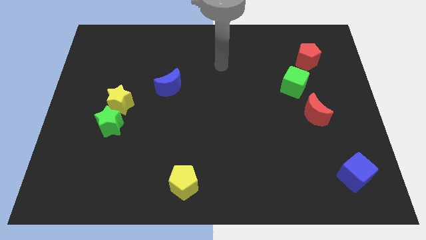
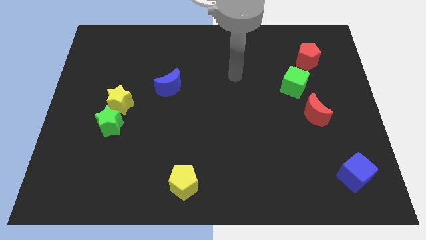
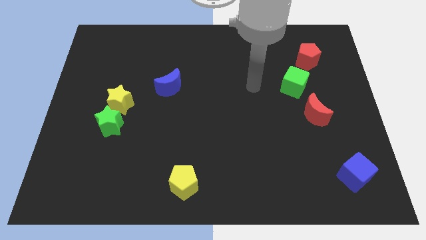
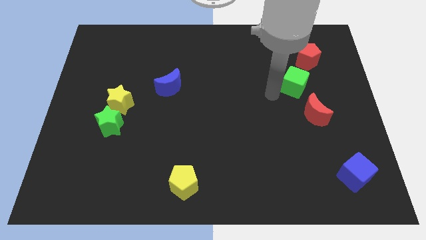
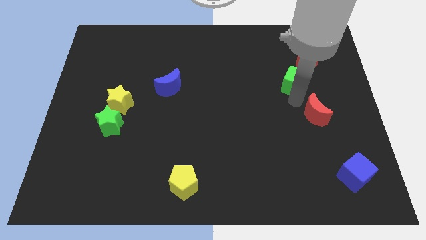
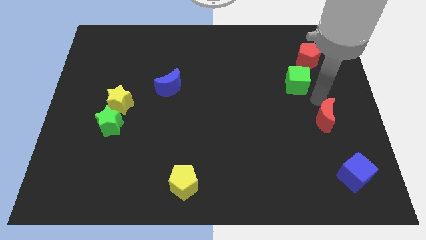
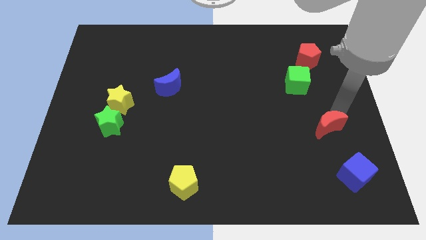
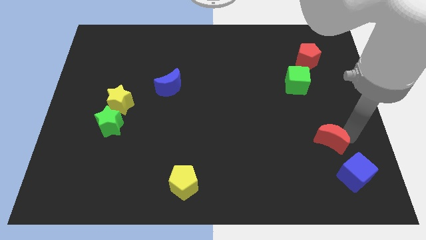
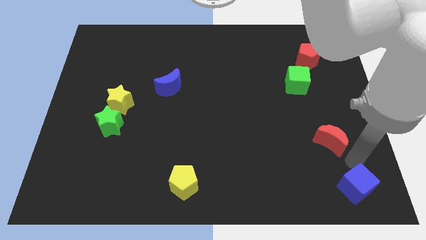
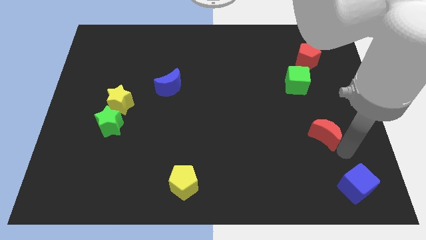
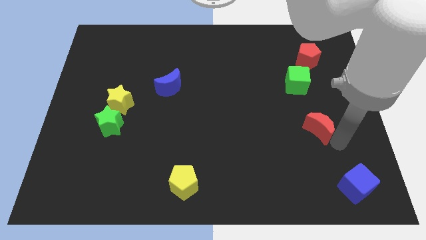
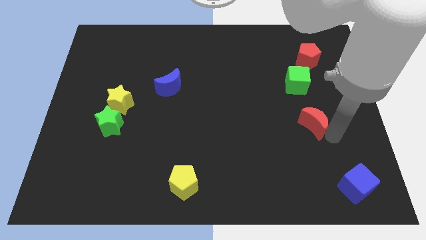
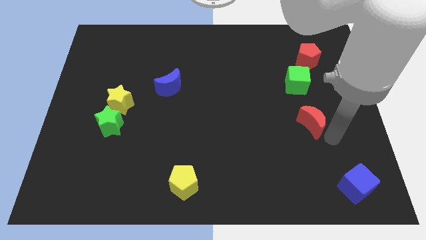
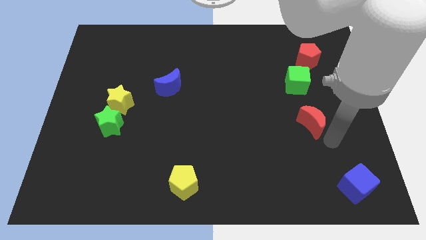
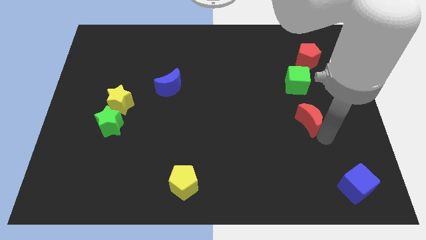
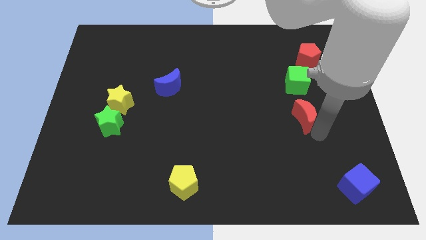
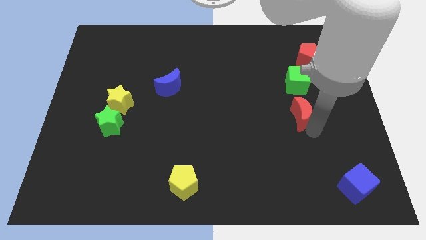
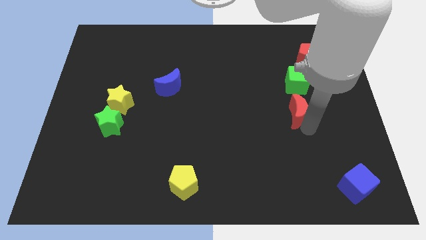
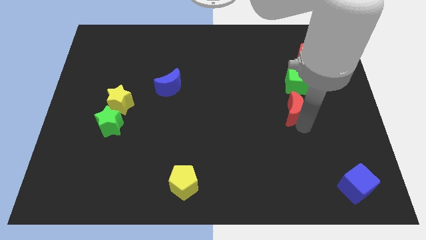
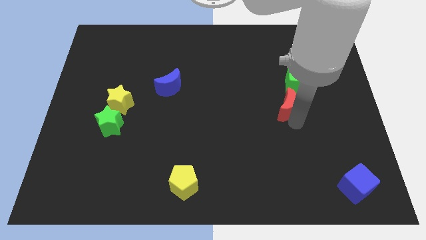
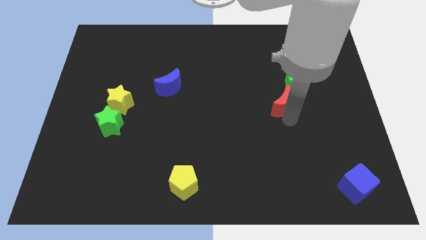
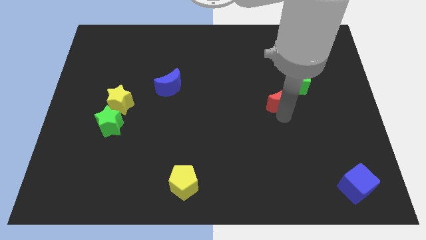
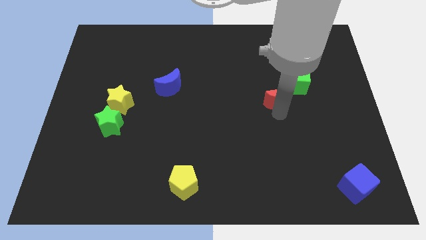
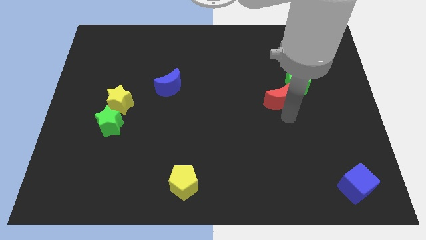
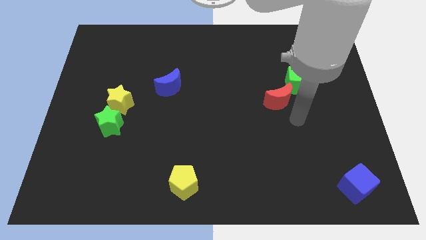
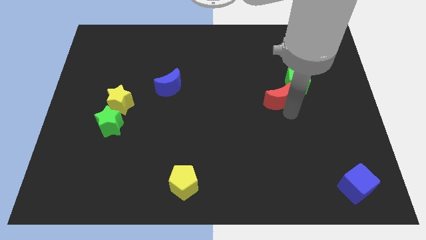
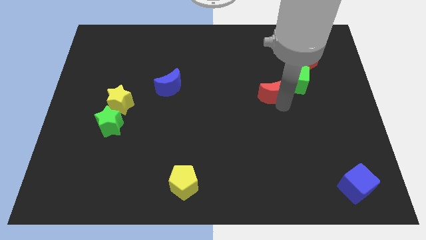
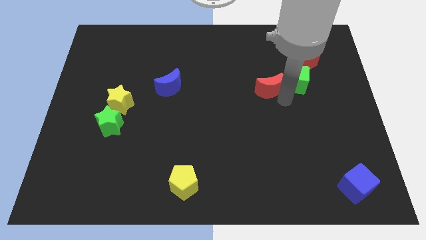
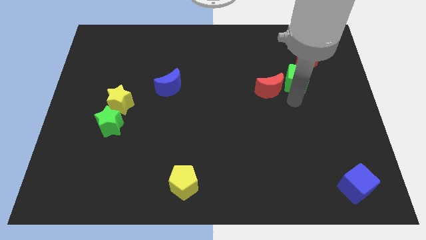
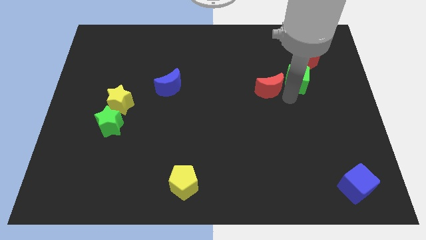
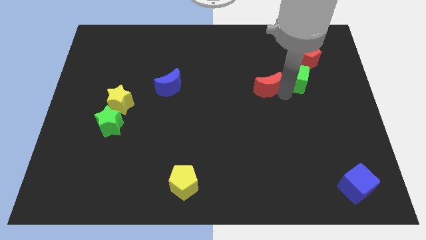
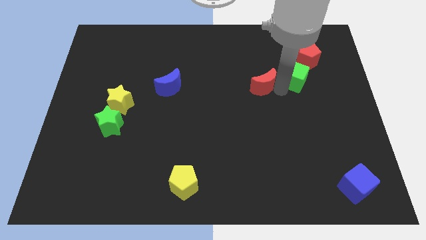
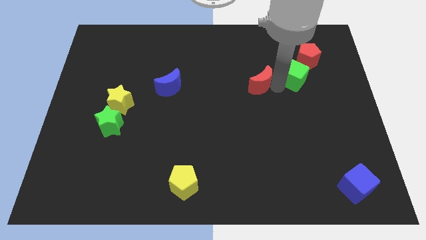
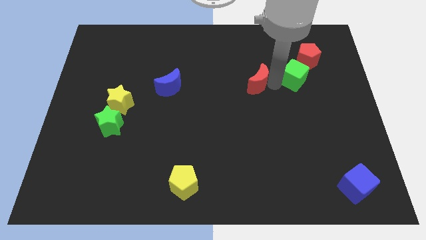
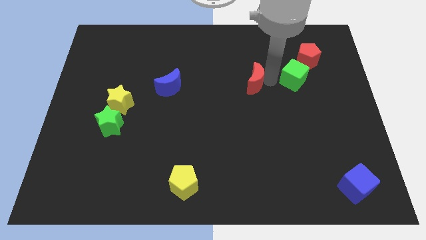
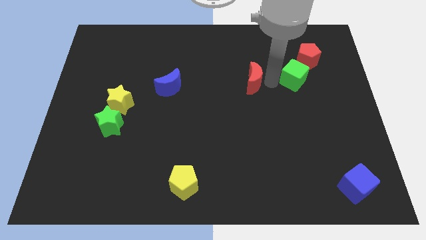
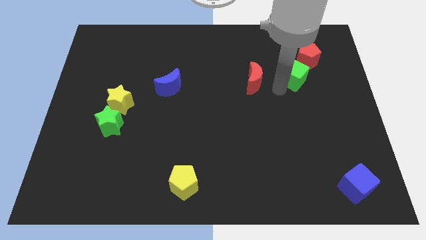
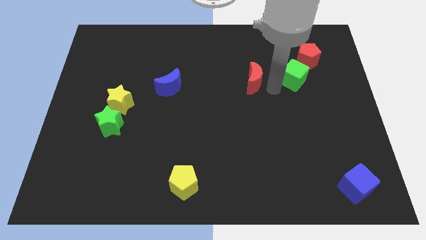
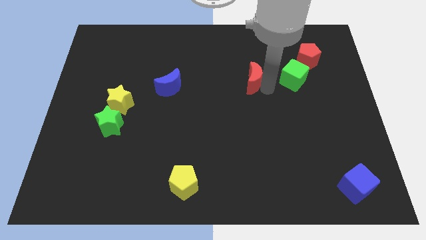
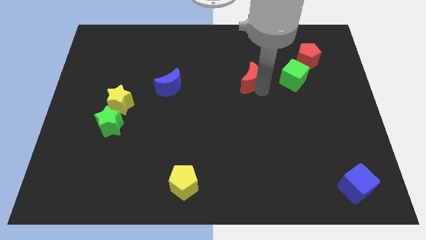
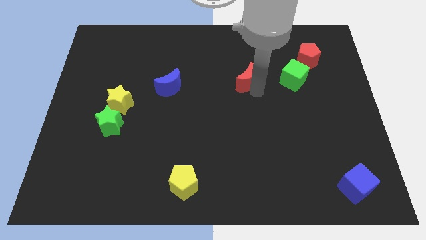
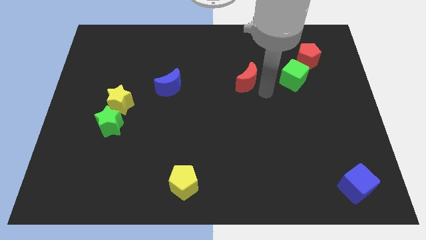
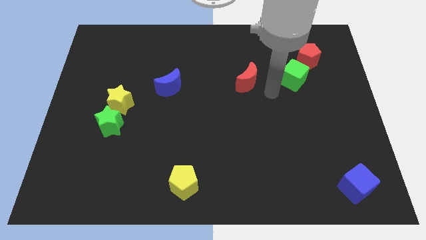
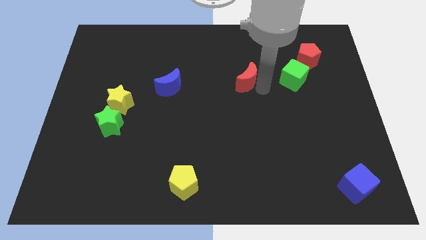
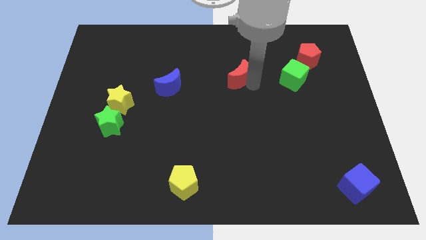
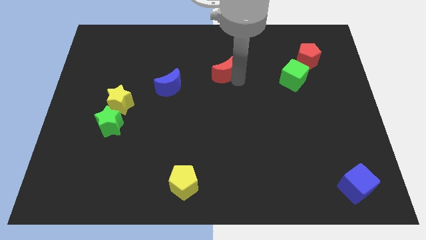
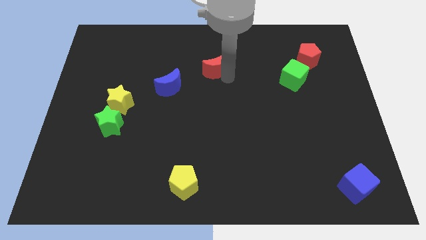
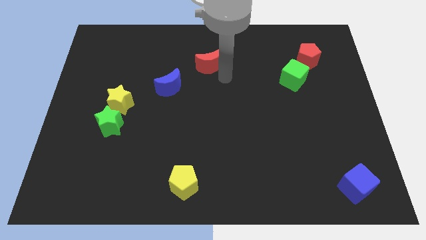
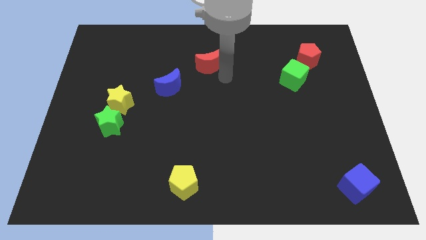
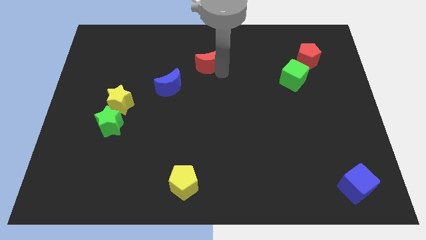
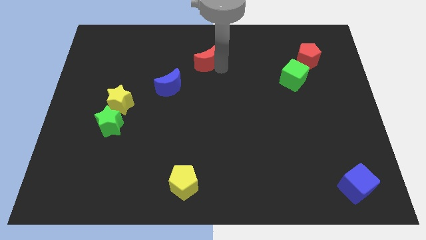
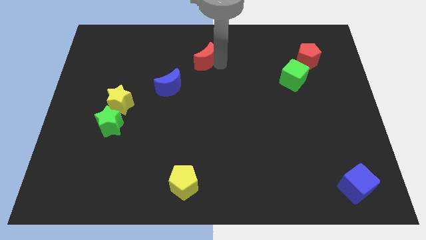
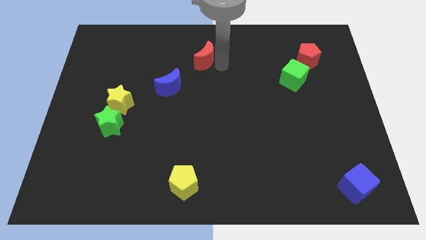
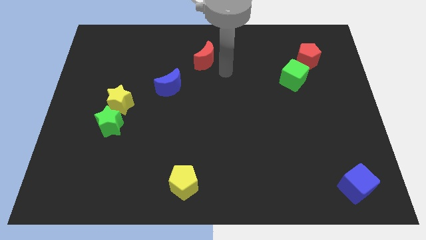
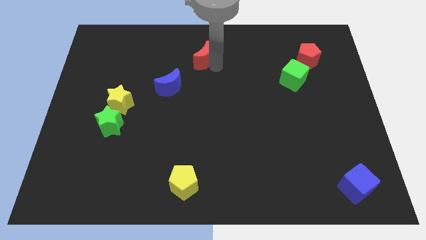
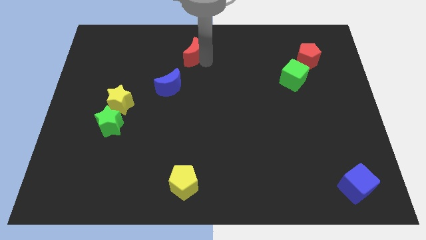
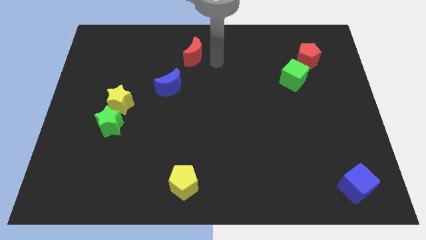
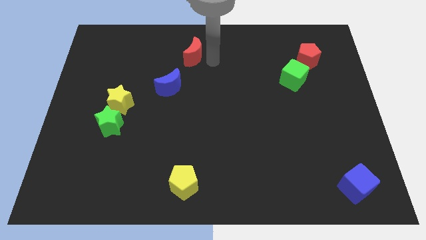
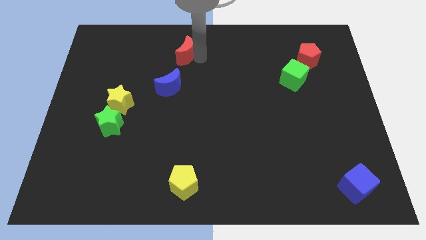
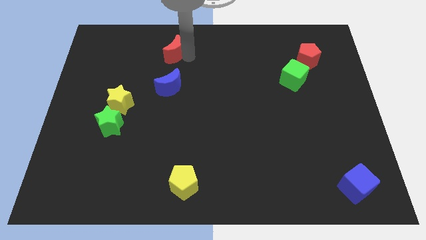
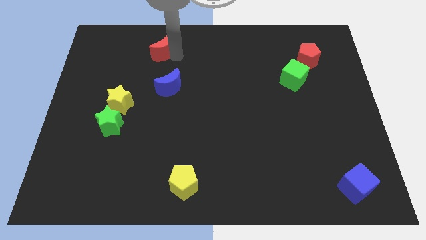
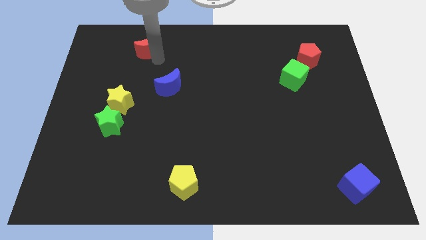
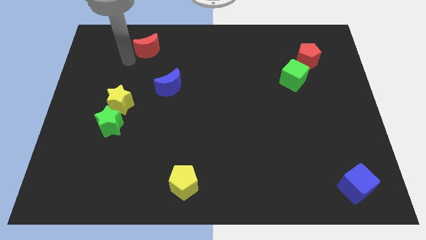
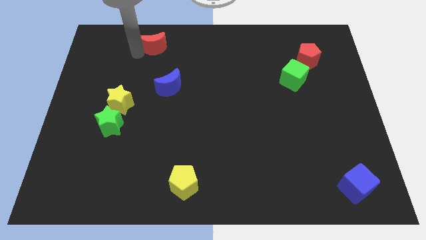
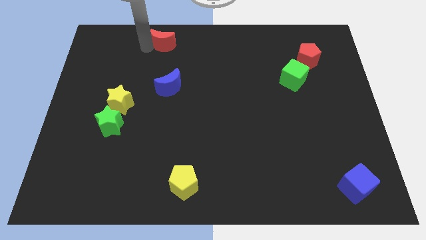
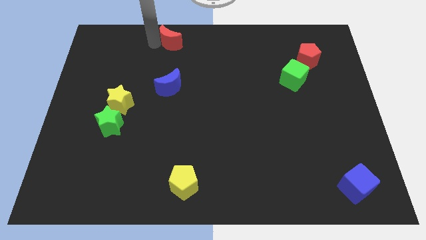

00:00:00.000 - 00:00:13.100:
put the red moon to the top
